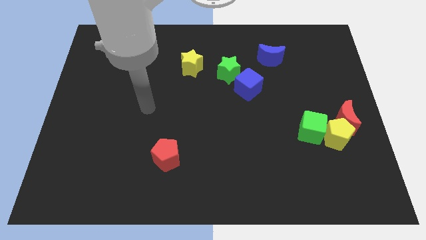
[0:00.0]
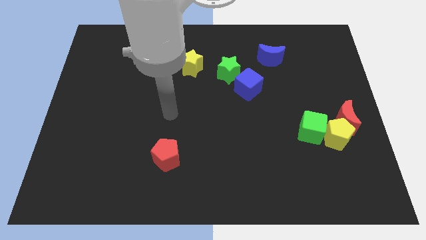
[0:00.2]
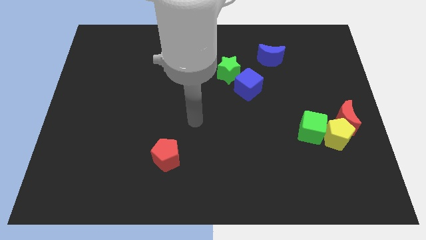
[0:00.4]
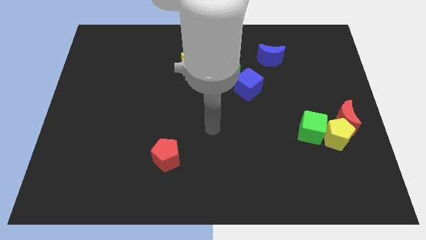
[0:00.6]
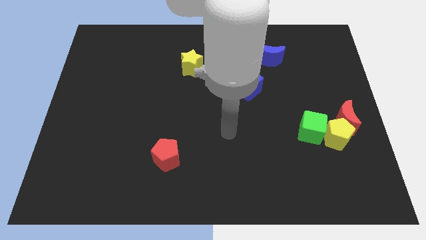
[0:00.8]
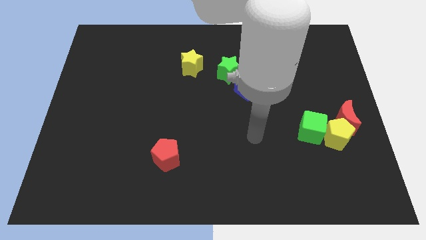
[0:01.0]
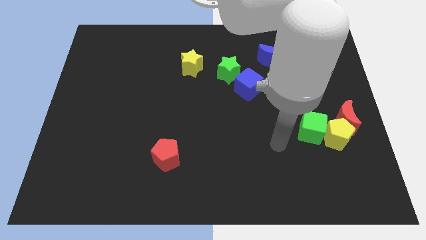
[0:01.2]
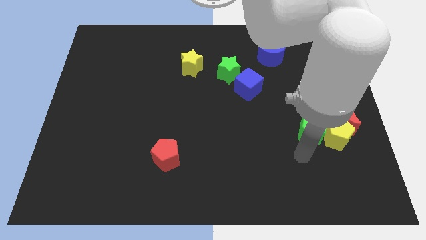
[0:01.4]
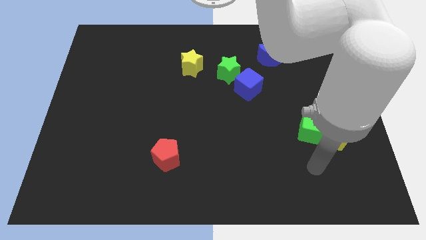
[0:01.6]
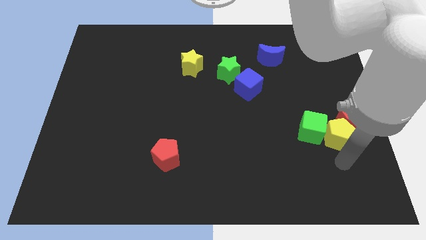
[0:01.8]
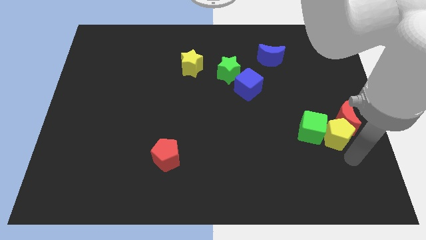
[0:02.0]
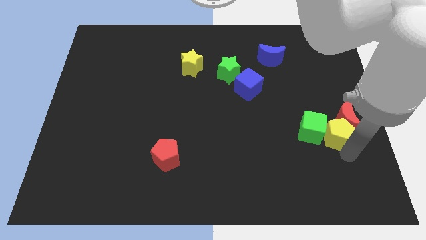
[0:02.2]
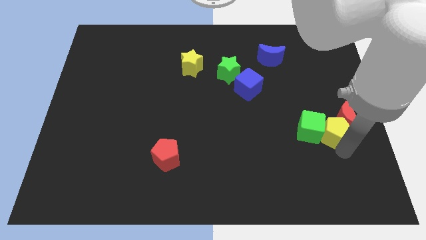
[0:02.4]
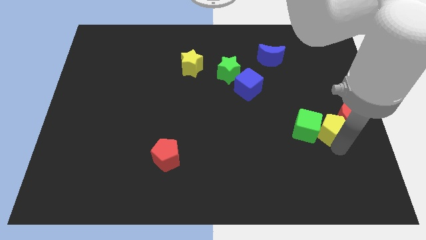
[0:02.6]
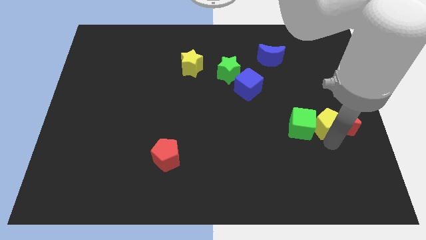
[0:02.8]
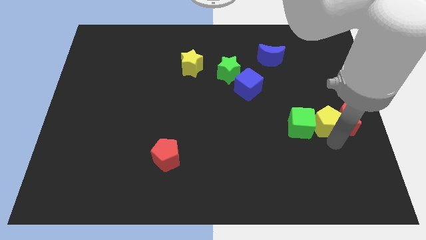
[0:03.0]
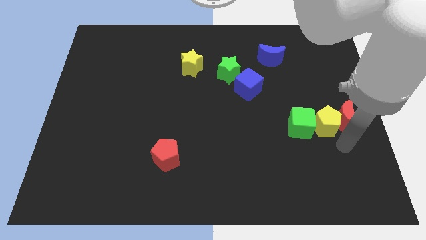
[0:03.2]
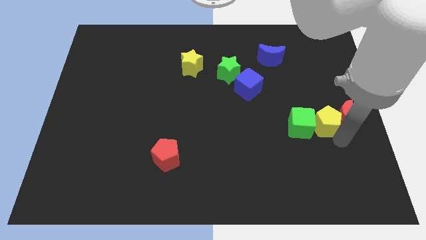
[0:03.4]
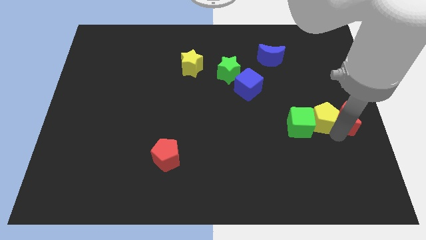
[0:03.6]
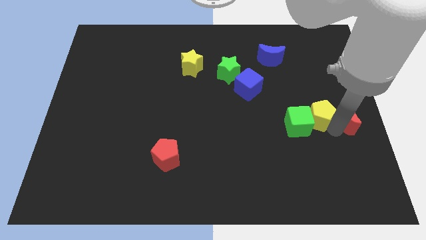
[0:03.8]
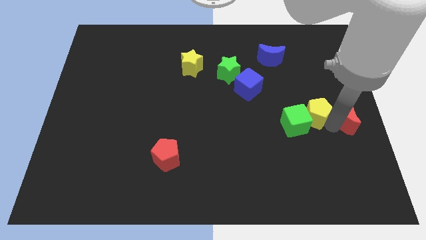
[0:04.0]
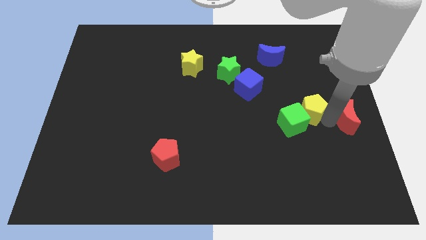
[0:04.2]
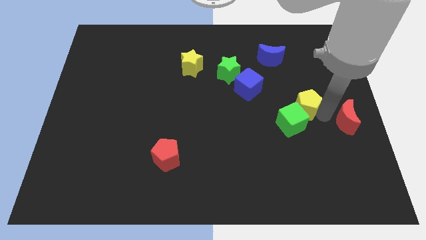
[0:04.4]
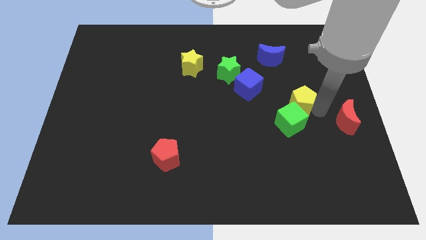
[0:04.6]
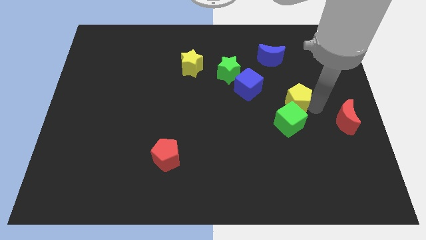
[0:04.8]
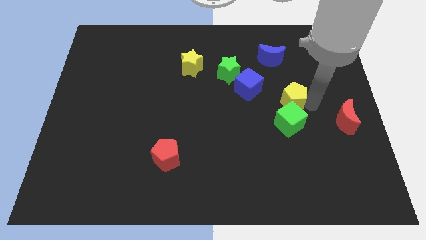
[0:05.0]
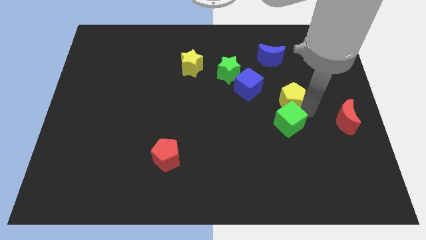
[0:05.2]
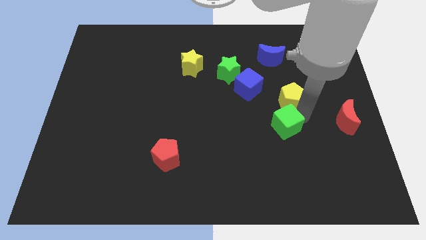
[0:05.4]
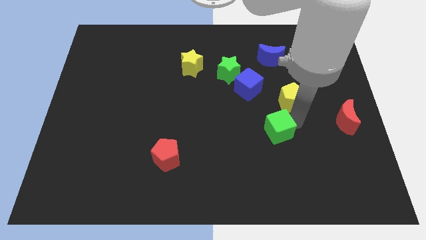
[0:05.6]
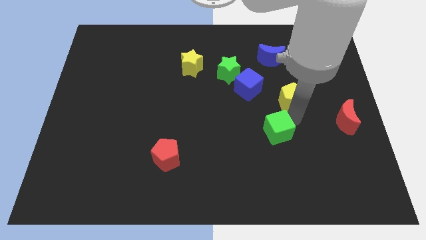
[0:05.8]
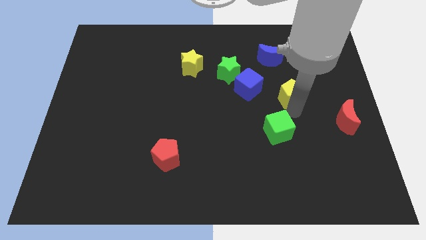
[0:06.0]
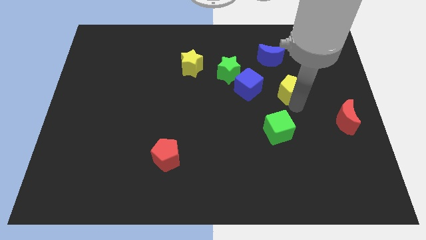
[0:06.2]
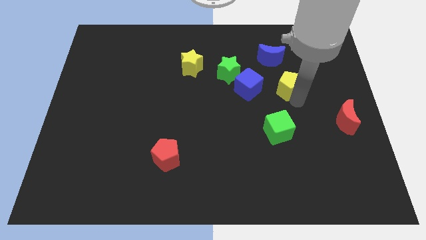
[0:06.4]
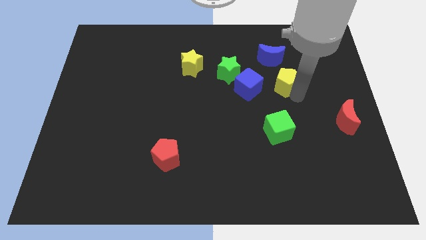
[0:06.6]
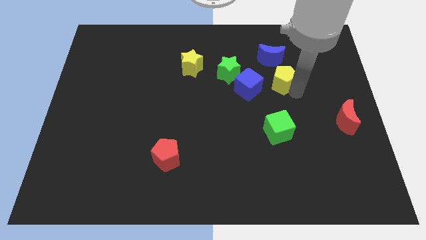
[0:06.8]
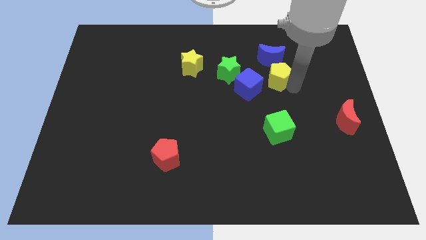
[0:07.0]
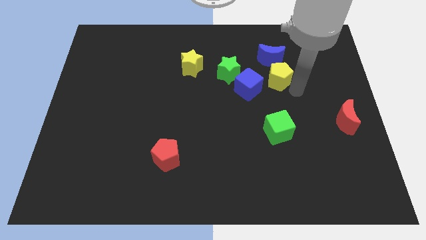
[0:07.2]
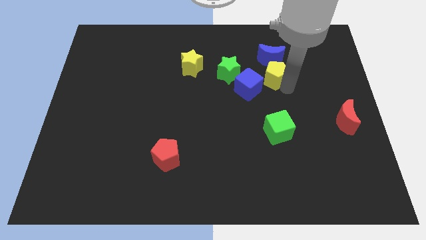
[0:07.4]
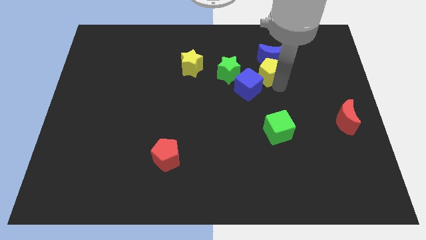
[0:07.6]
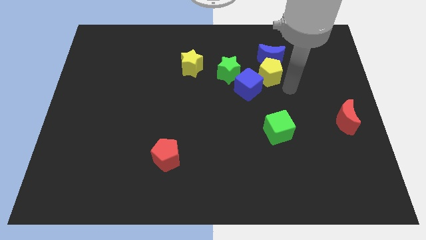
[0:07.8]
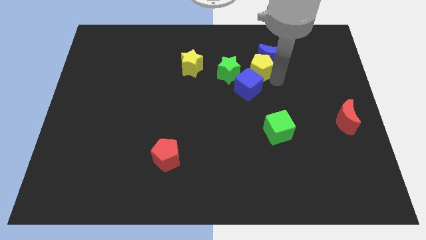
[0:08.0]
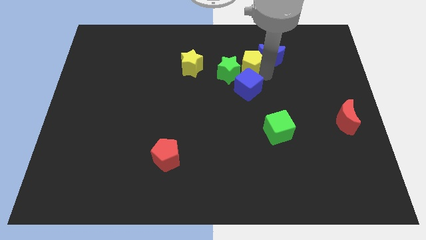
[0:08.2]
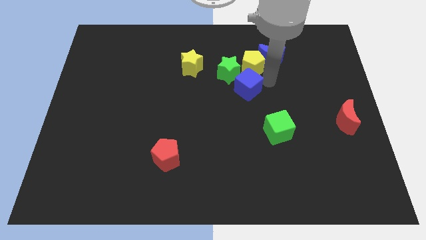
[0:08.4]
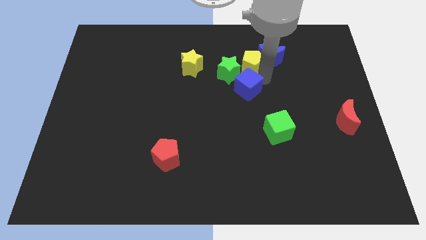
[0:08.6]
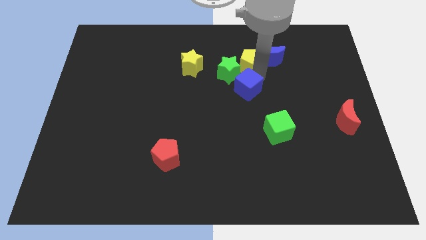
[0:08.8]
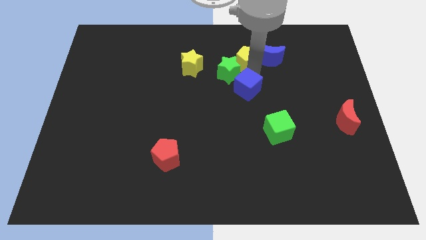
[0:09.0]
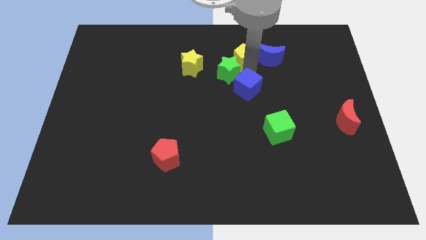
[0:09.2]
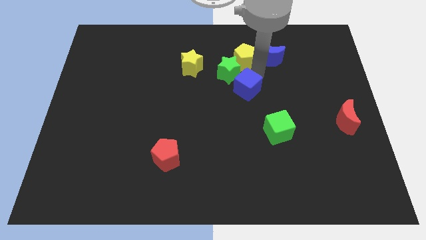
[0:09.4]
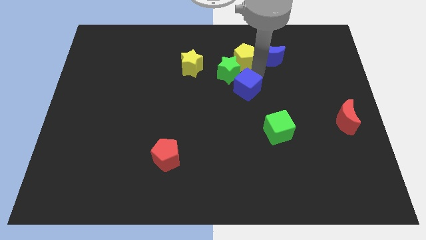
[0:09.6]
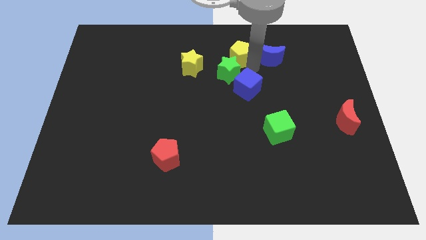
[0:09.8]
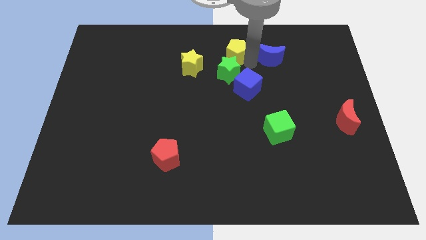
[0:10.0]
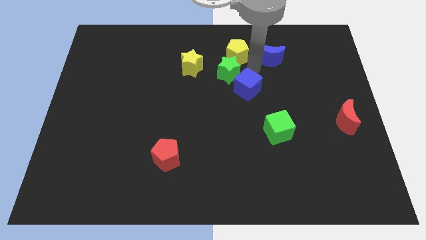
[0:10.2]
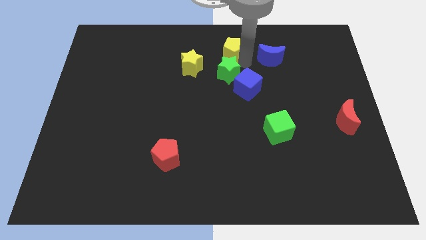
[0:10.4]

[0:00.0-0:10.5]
slide the yellow pentagon to the top

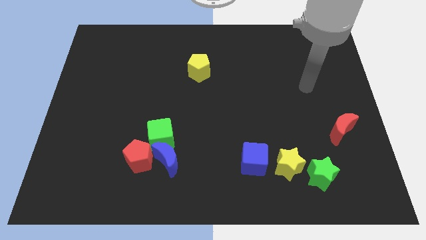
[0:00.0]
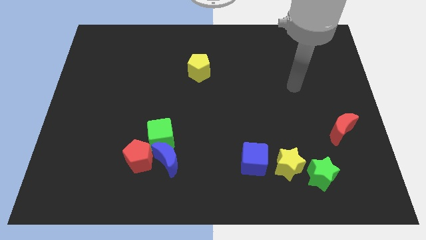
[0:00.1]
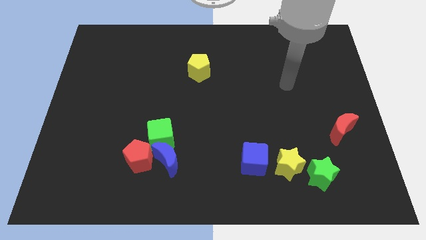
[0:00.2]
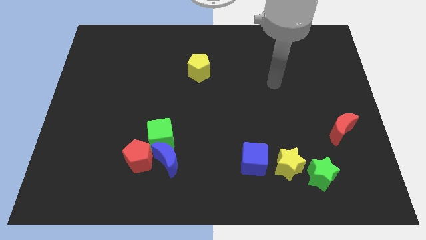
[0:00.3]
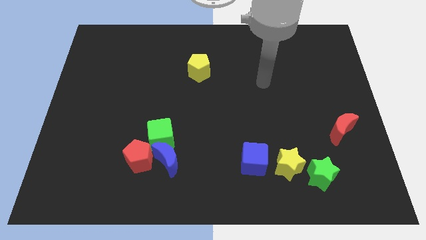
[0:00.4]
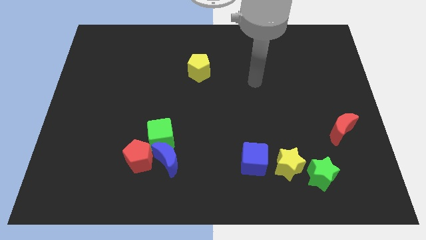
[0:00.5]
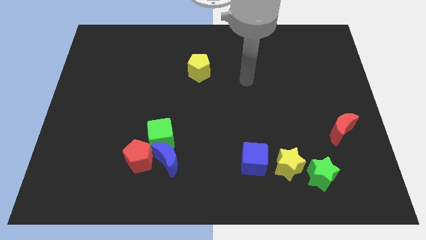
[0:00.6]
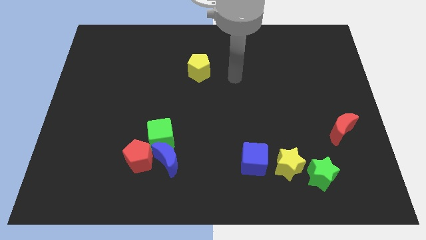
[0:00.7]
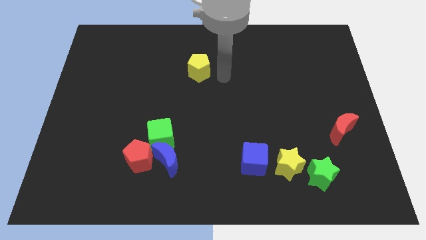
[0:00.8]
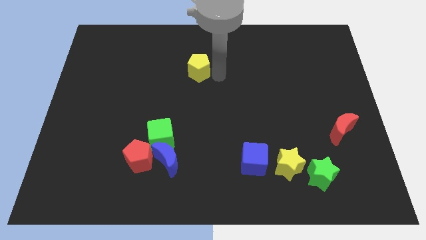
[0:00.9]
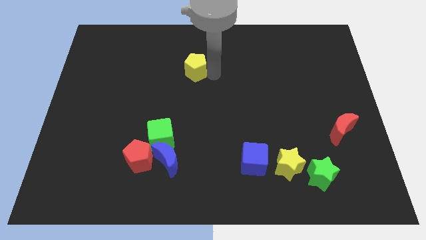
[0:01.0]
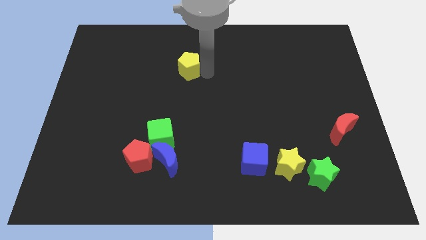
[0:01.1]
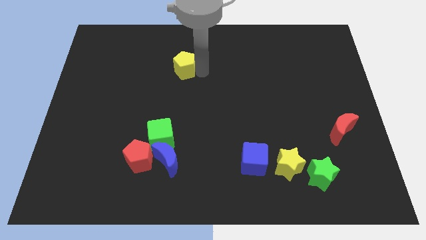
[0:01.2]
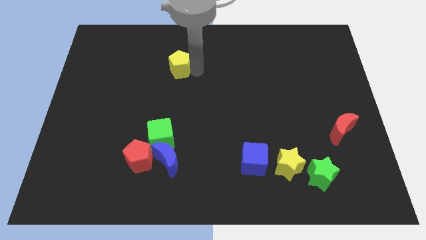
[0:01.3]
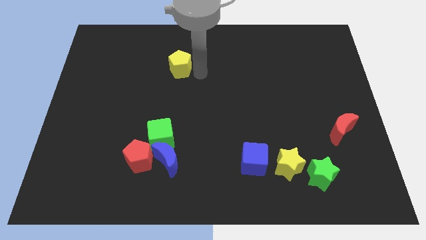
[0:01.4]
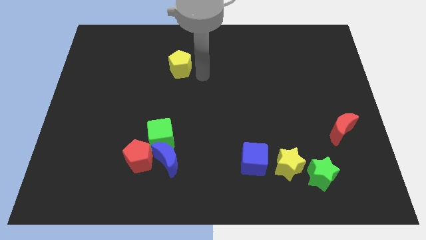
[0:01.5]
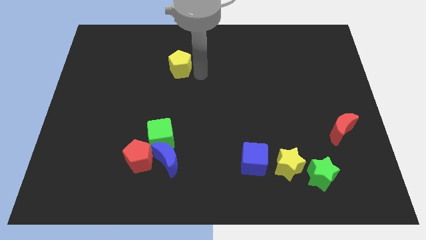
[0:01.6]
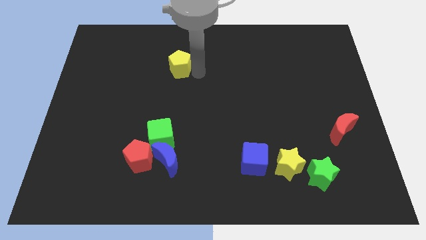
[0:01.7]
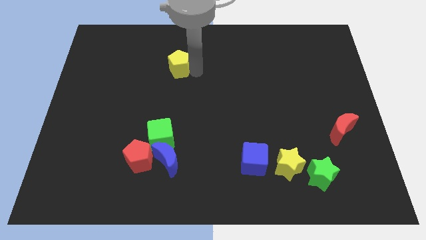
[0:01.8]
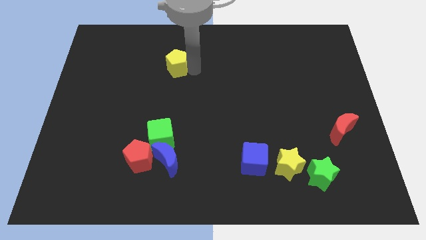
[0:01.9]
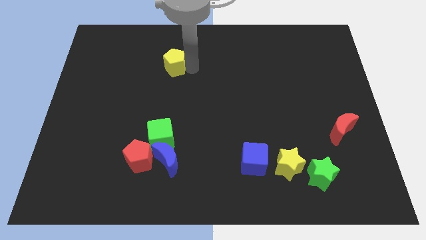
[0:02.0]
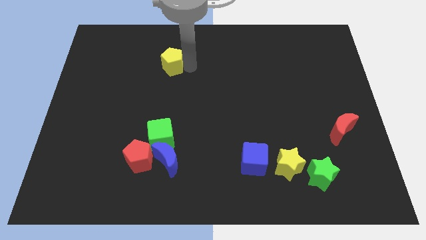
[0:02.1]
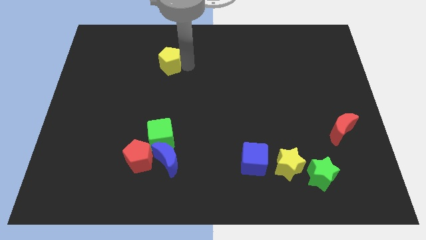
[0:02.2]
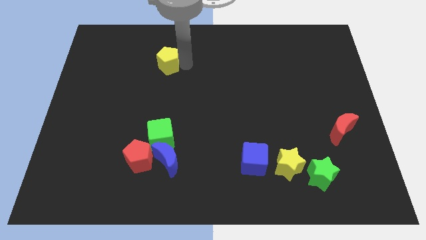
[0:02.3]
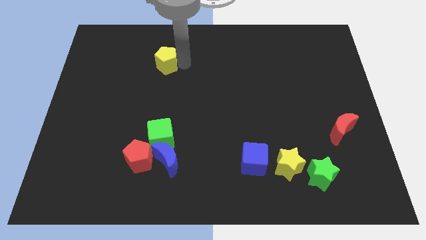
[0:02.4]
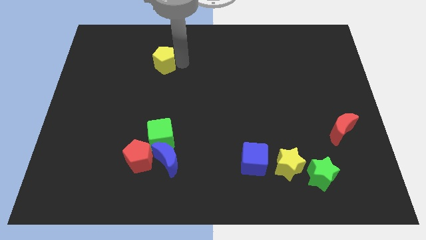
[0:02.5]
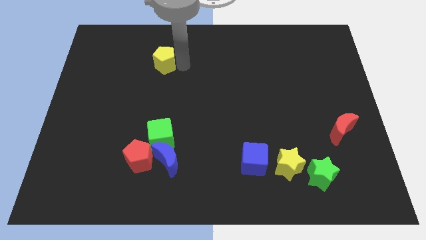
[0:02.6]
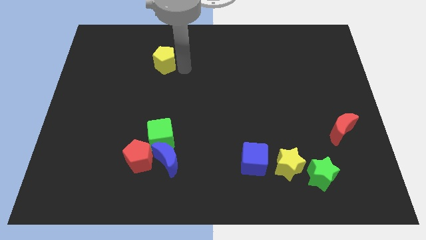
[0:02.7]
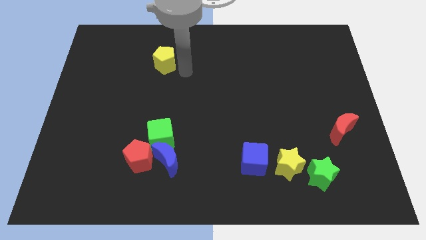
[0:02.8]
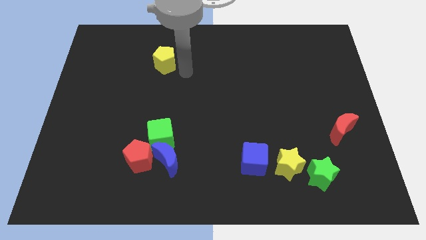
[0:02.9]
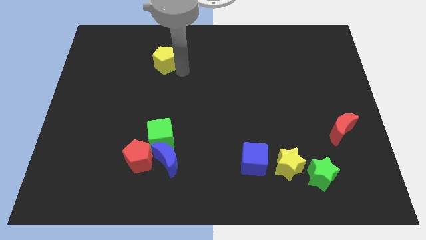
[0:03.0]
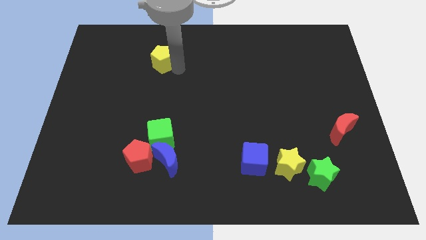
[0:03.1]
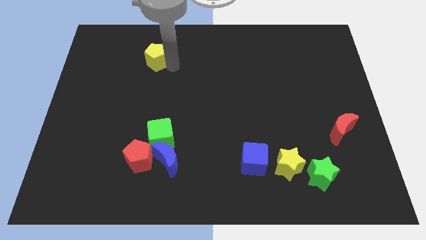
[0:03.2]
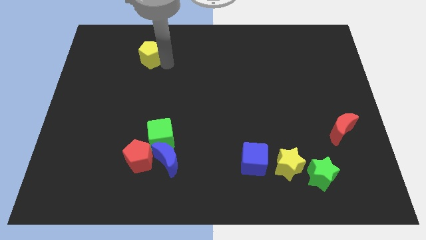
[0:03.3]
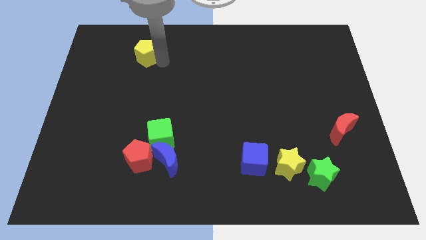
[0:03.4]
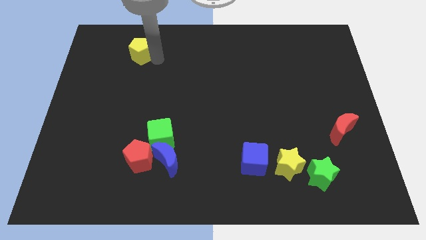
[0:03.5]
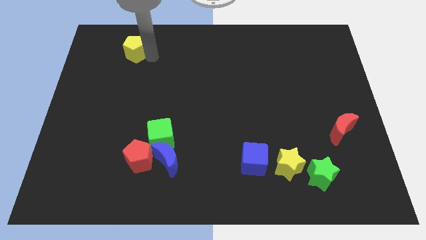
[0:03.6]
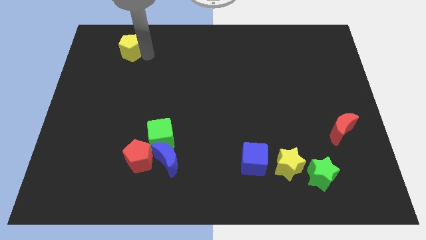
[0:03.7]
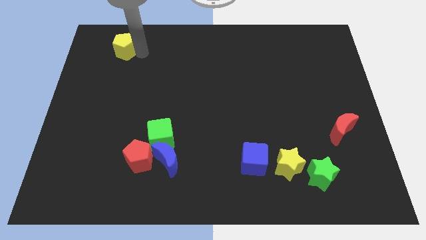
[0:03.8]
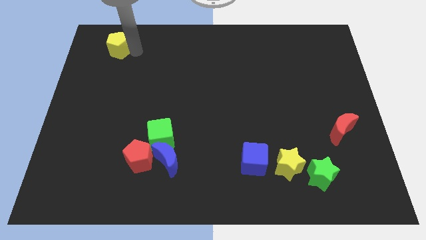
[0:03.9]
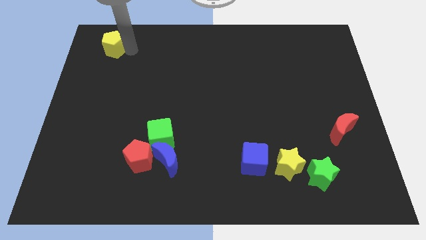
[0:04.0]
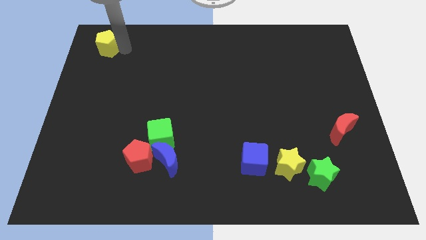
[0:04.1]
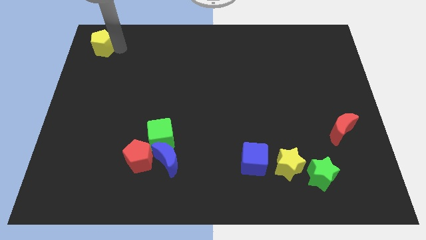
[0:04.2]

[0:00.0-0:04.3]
push the yellow pentagon to the top left corner
